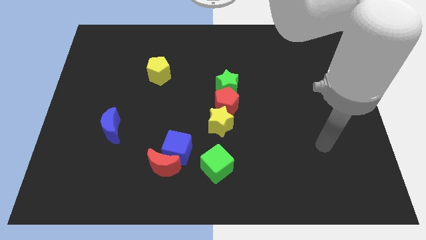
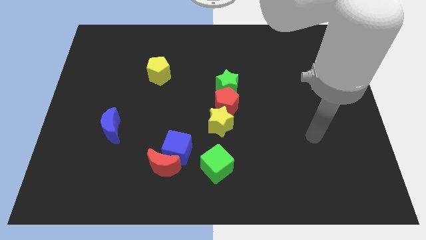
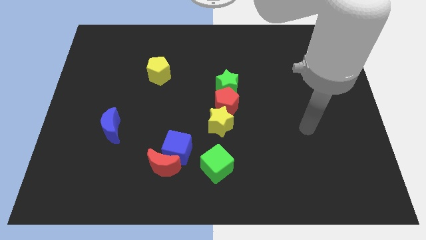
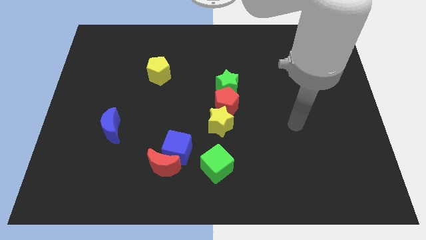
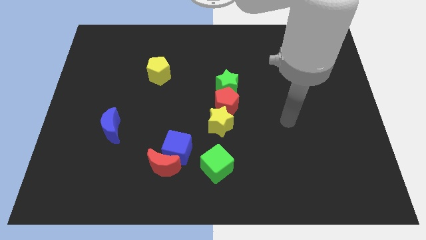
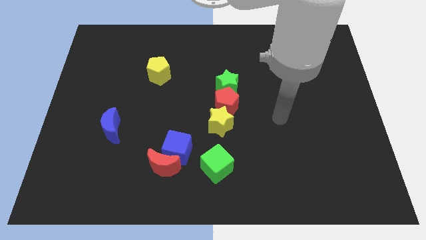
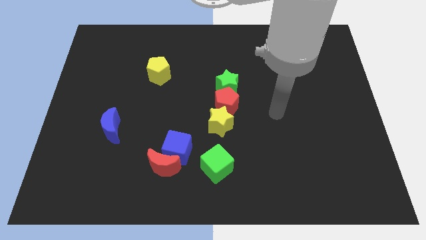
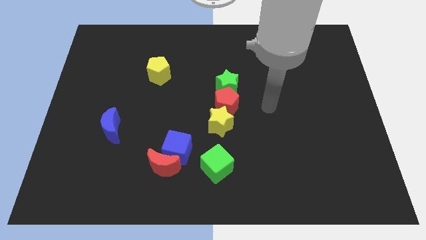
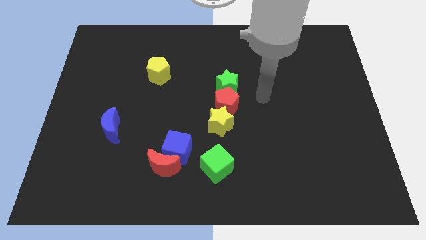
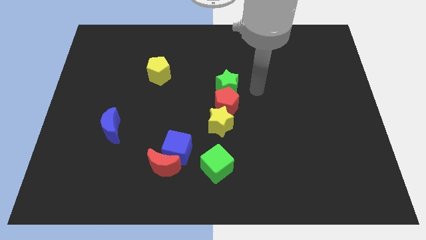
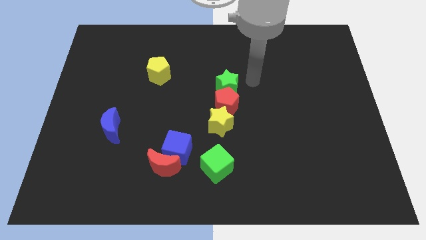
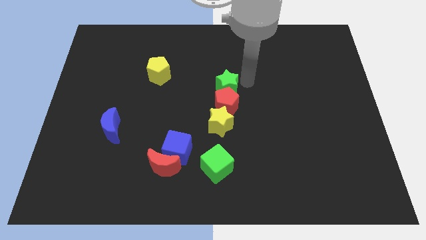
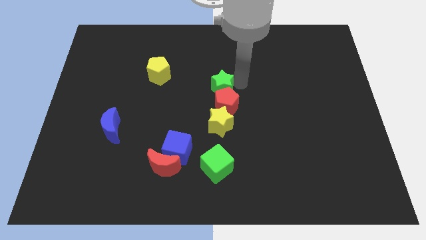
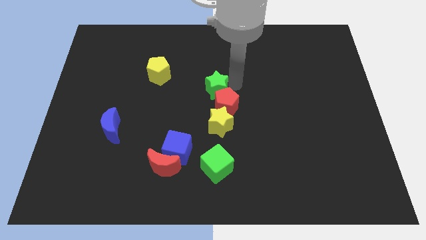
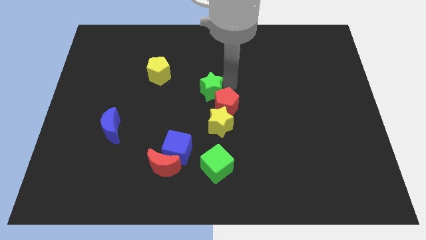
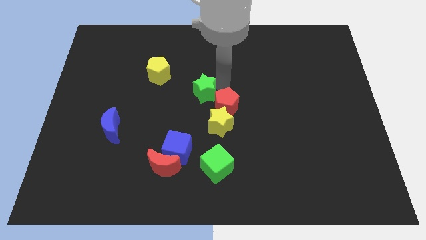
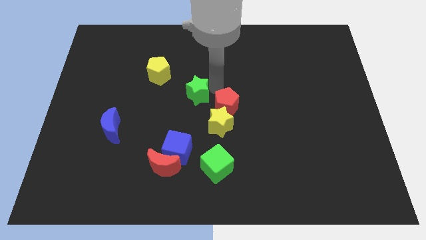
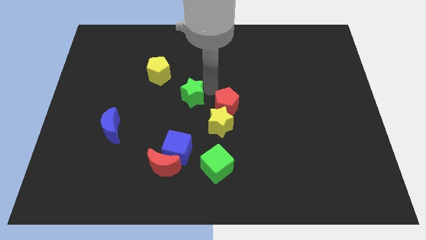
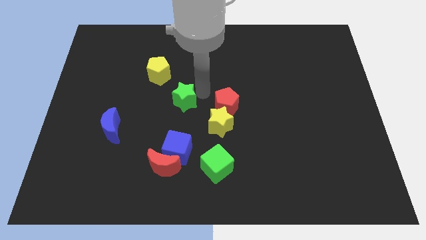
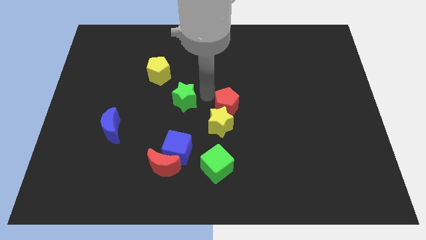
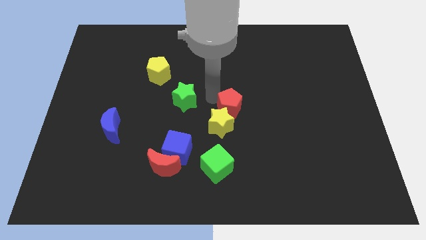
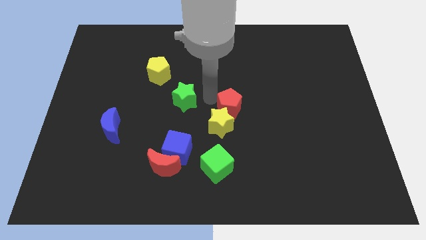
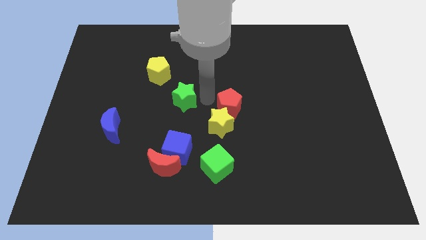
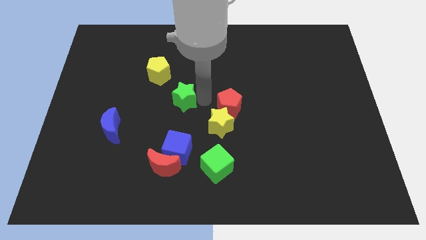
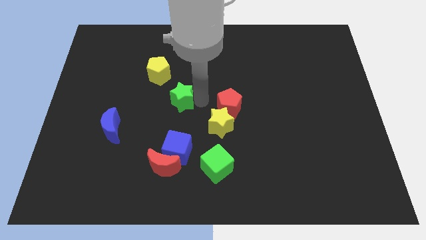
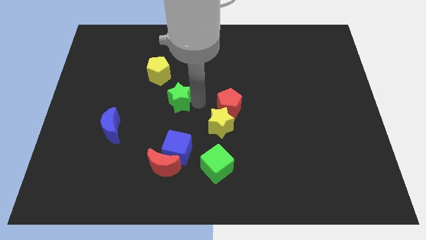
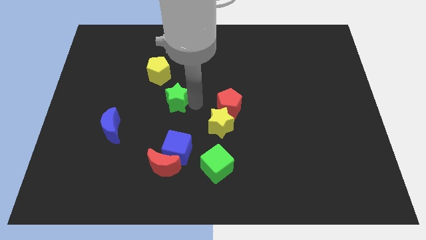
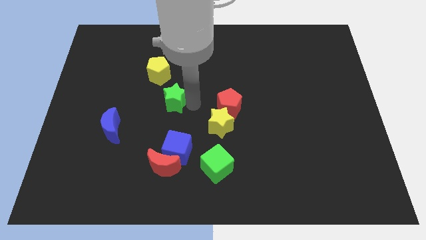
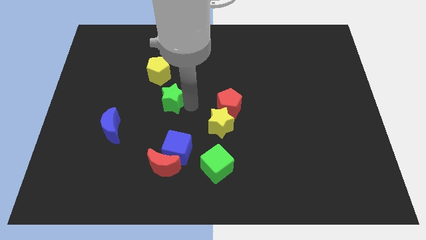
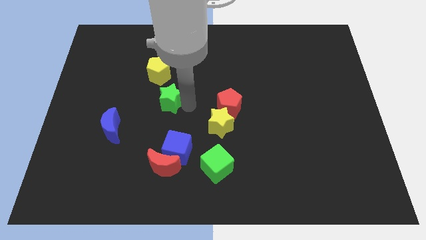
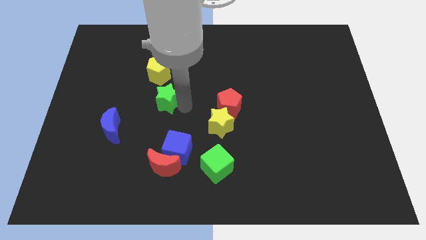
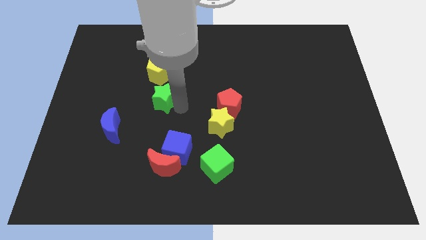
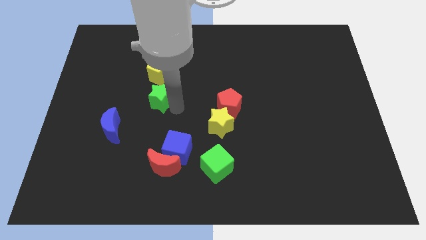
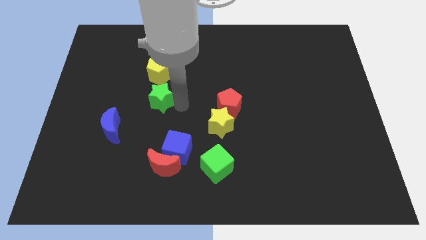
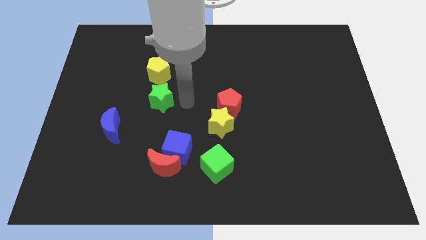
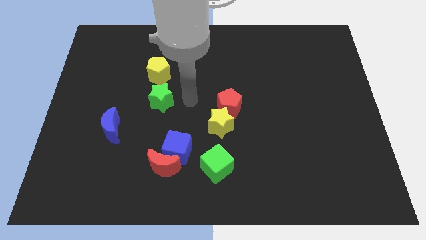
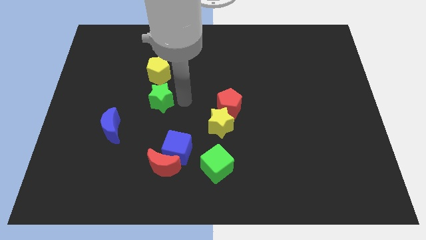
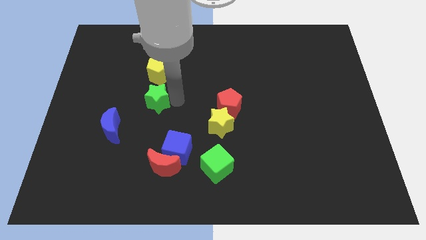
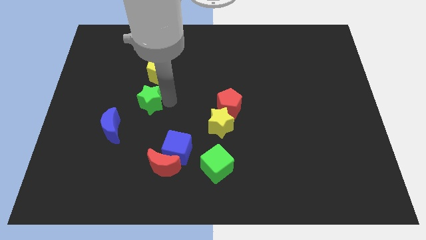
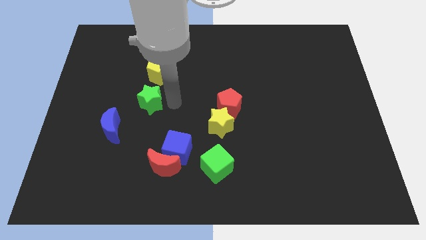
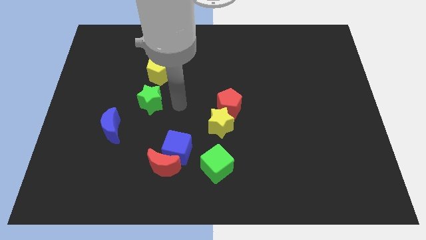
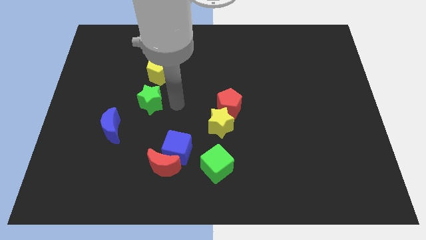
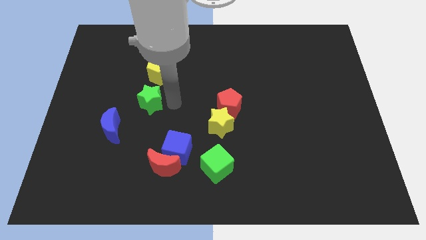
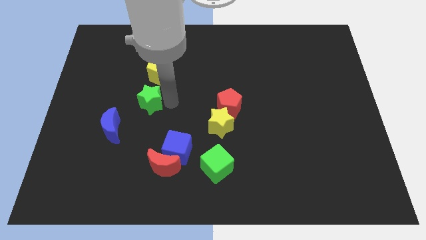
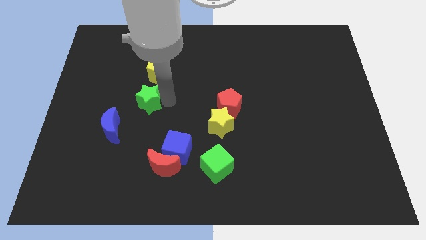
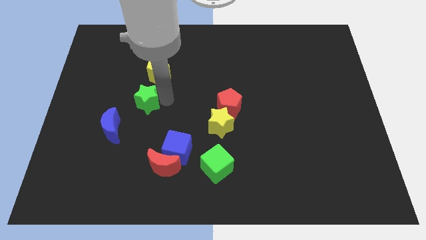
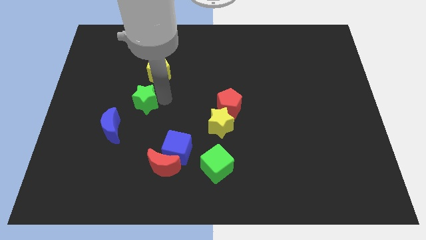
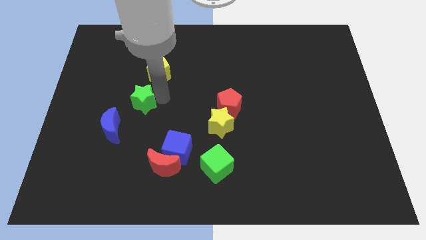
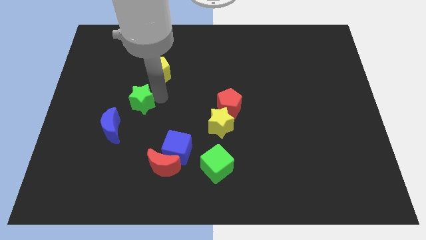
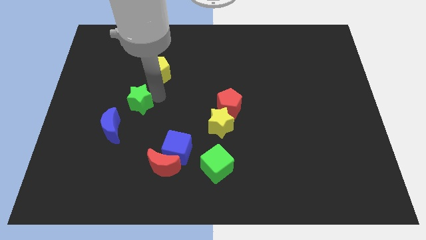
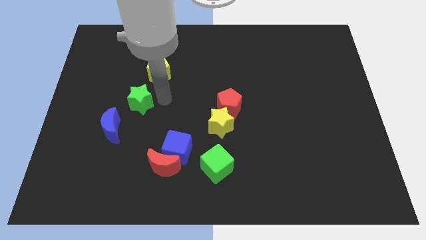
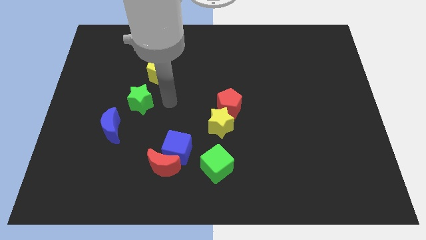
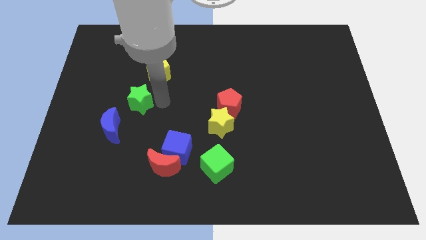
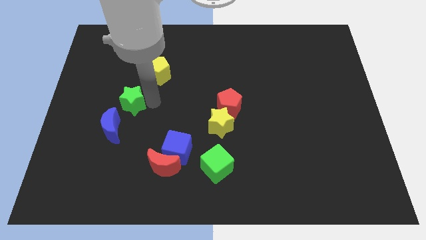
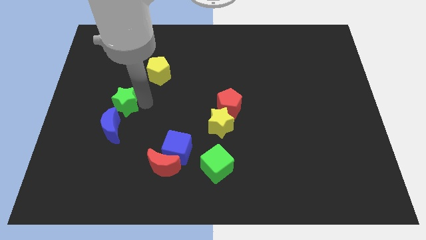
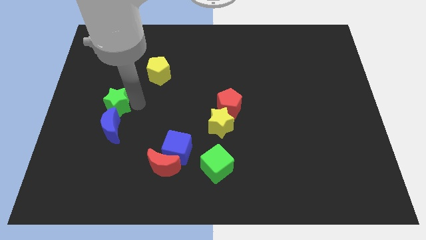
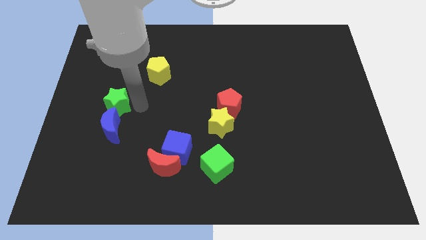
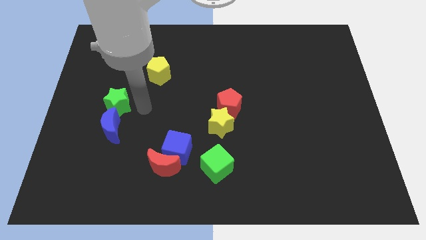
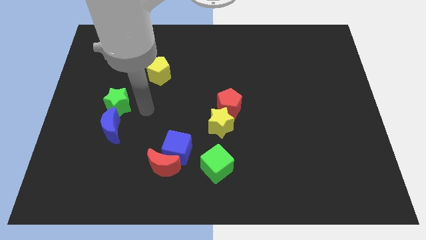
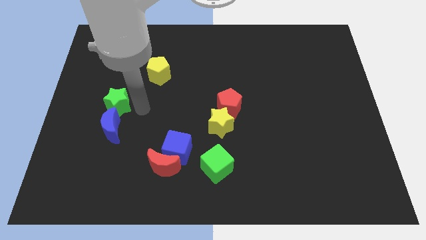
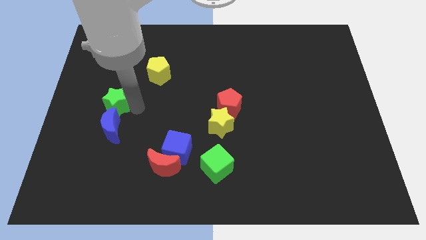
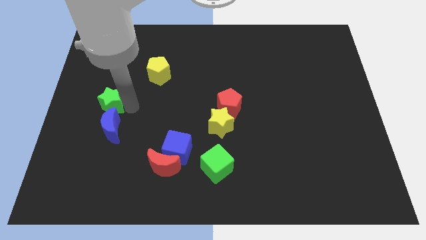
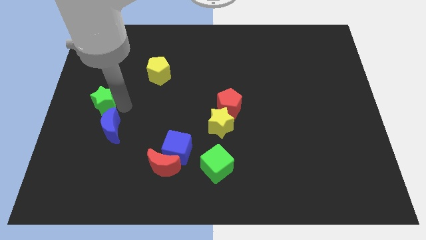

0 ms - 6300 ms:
slide the green star to the left side of the board
